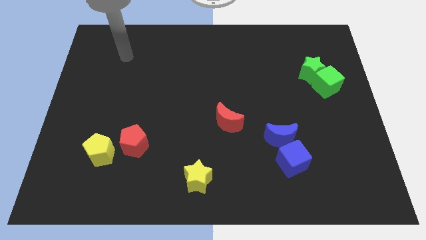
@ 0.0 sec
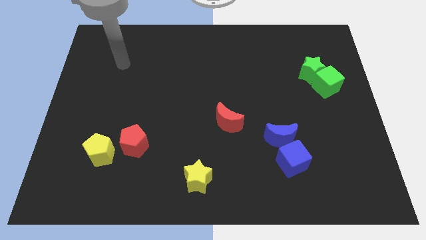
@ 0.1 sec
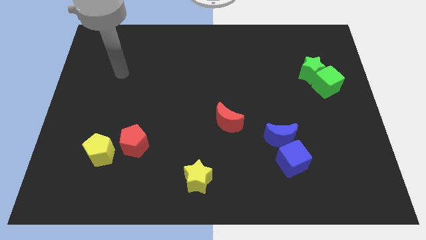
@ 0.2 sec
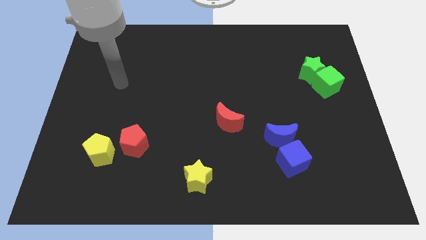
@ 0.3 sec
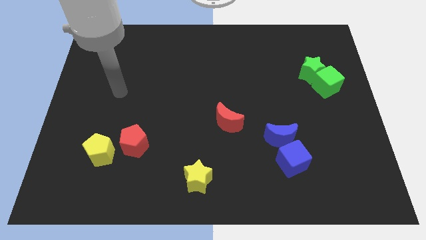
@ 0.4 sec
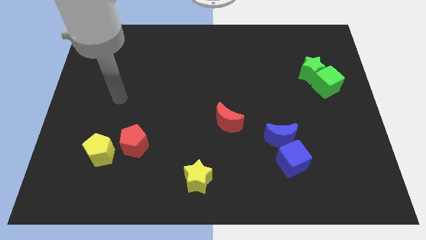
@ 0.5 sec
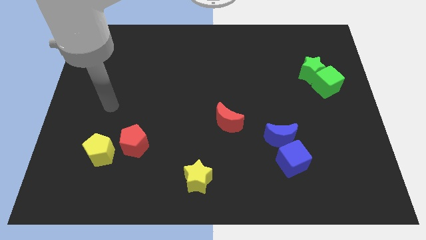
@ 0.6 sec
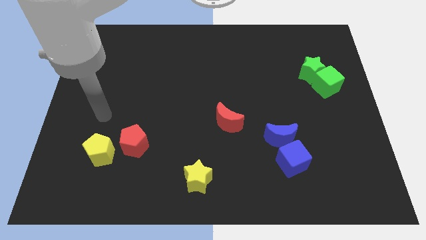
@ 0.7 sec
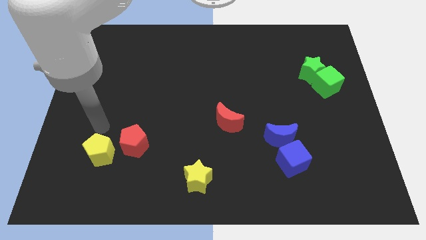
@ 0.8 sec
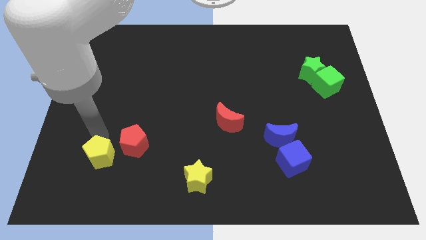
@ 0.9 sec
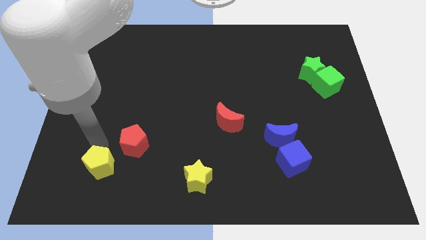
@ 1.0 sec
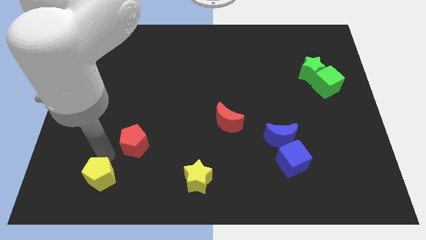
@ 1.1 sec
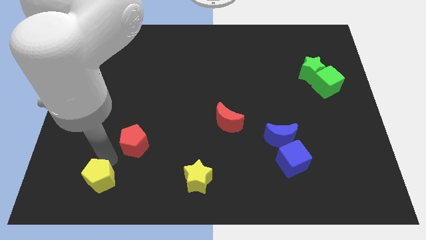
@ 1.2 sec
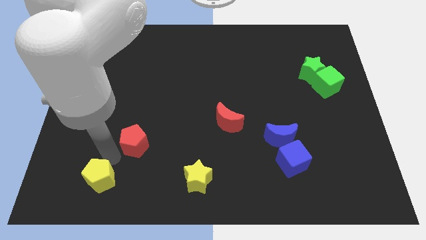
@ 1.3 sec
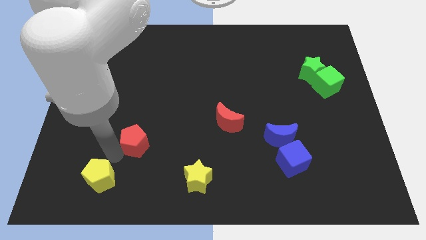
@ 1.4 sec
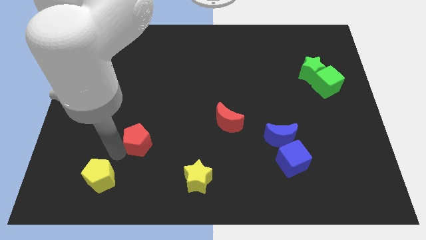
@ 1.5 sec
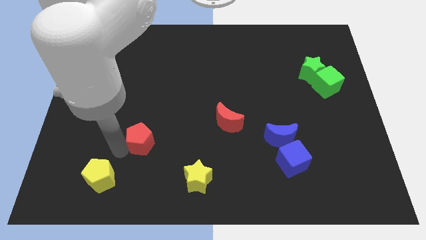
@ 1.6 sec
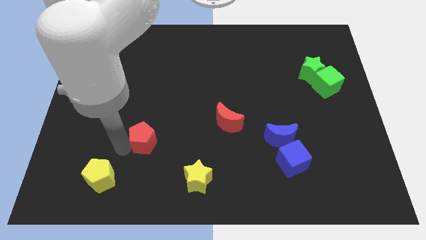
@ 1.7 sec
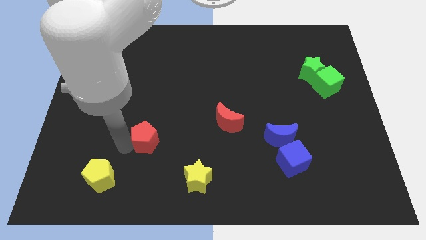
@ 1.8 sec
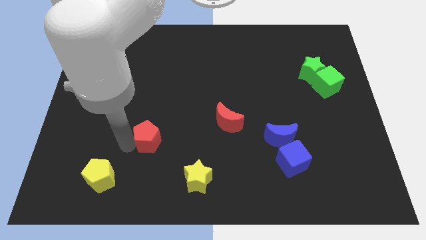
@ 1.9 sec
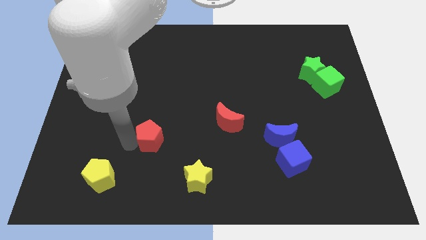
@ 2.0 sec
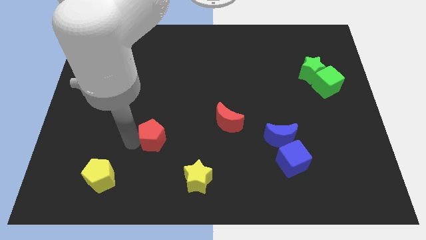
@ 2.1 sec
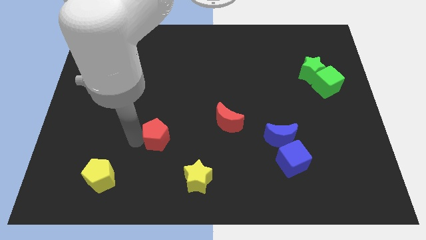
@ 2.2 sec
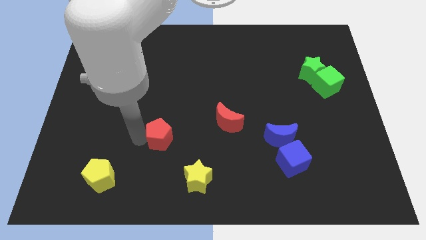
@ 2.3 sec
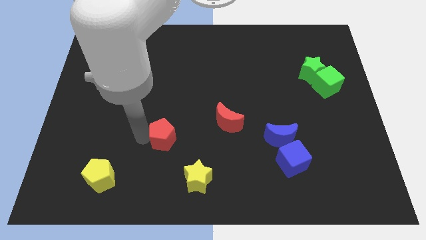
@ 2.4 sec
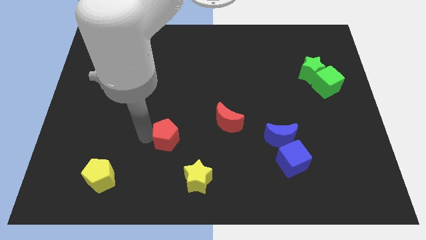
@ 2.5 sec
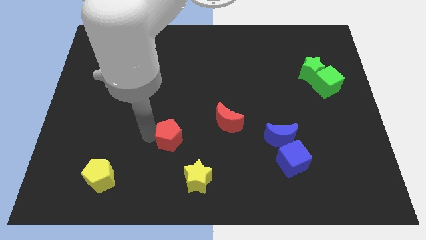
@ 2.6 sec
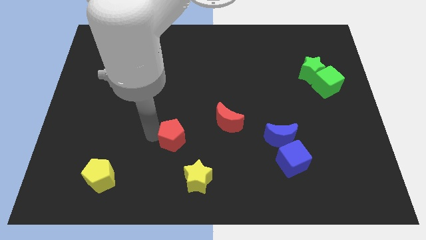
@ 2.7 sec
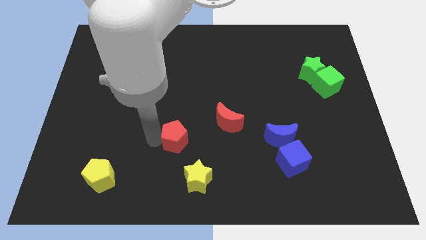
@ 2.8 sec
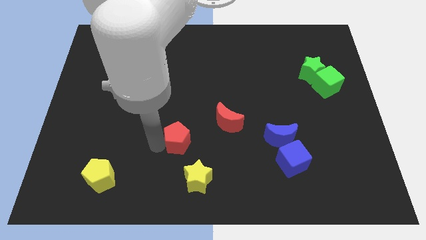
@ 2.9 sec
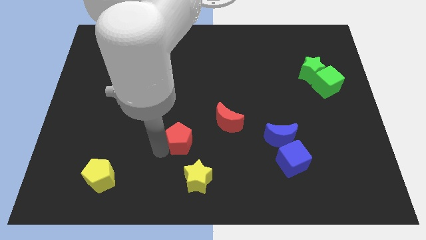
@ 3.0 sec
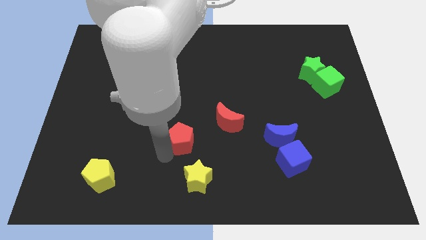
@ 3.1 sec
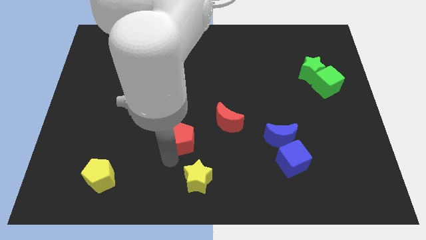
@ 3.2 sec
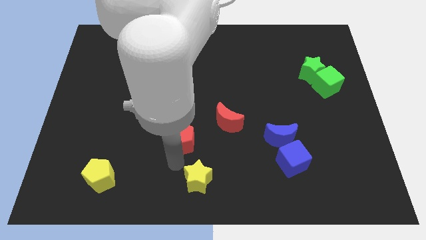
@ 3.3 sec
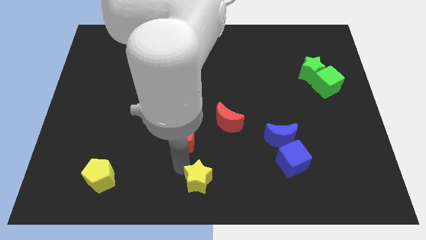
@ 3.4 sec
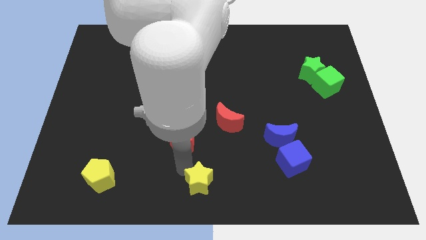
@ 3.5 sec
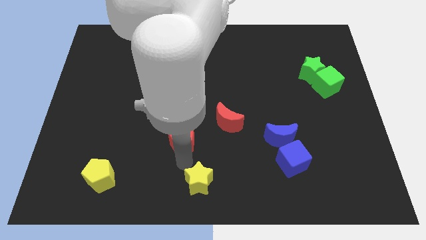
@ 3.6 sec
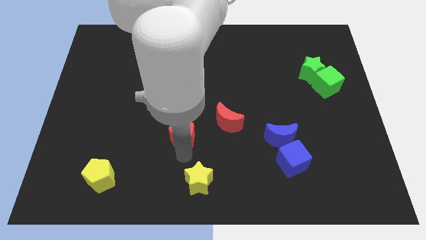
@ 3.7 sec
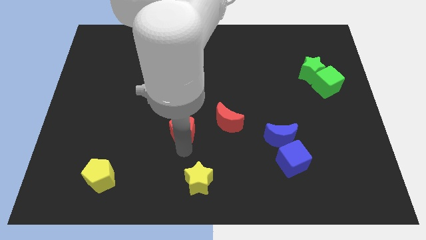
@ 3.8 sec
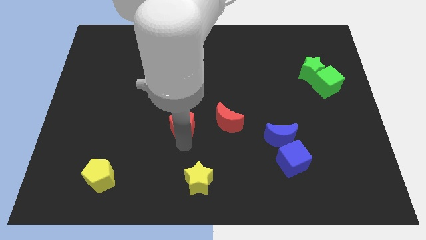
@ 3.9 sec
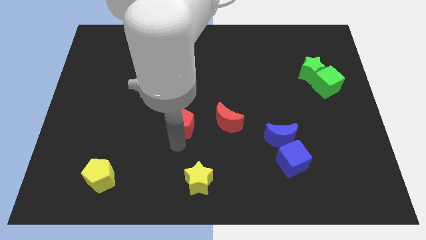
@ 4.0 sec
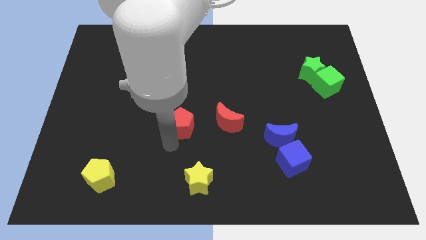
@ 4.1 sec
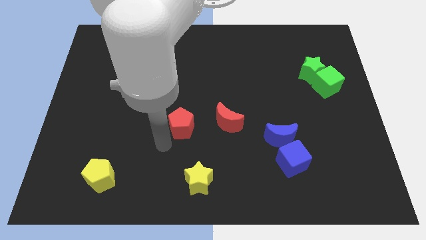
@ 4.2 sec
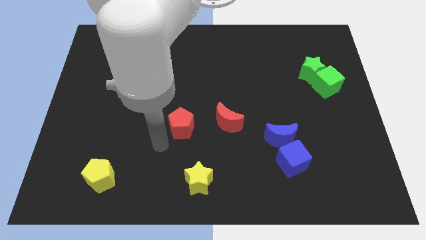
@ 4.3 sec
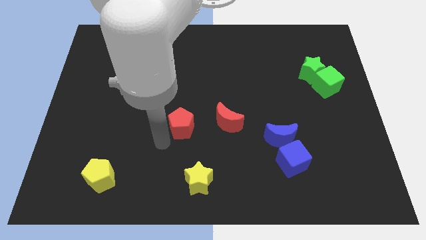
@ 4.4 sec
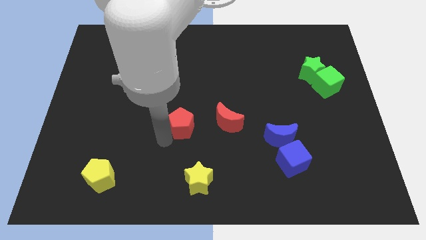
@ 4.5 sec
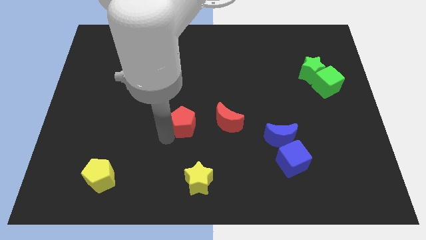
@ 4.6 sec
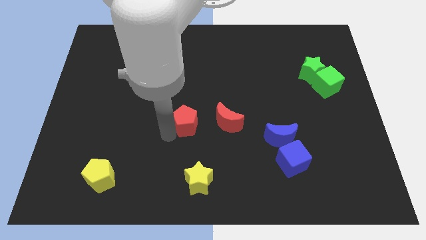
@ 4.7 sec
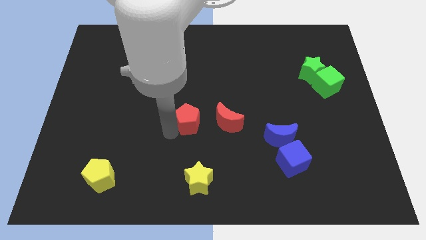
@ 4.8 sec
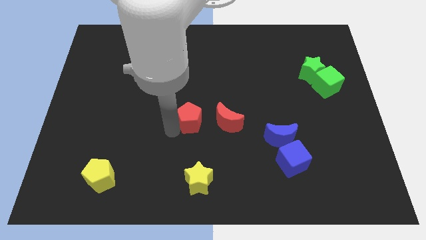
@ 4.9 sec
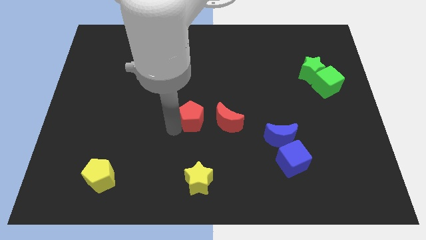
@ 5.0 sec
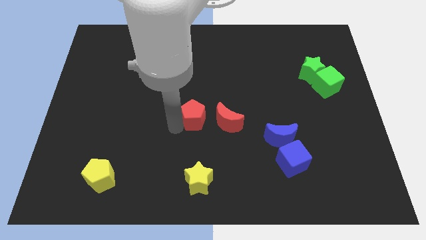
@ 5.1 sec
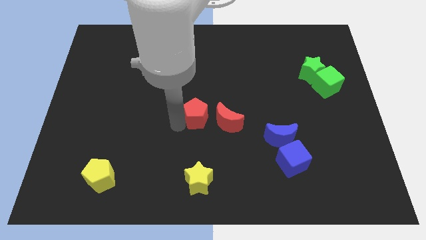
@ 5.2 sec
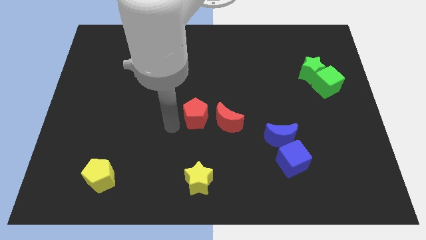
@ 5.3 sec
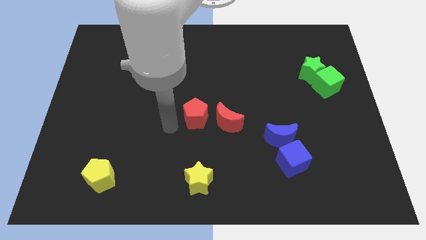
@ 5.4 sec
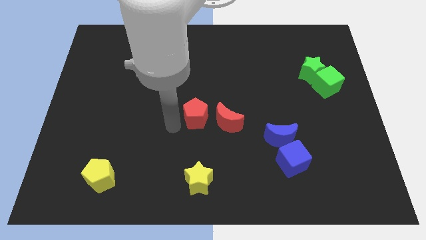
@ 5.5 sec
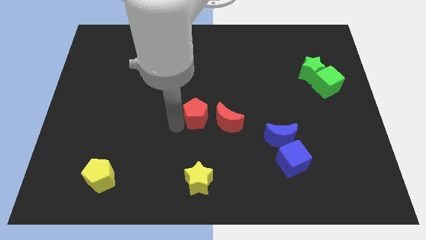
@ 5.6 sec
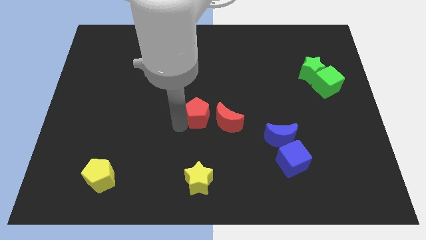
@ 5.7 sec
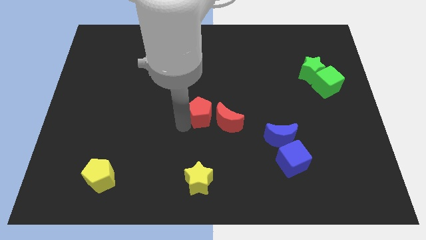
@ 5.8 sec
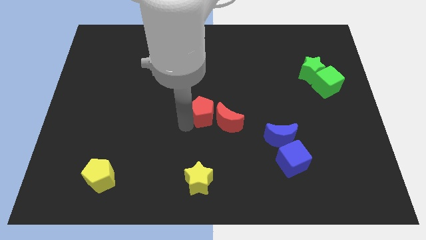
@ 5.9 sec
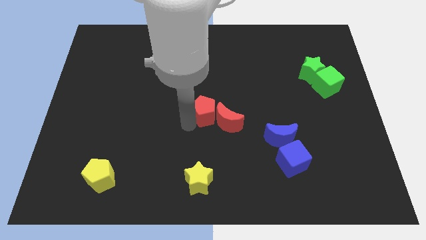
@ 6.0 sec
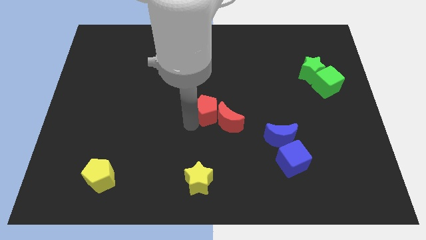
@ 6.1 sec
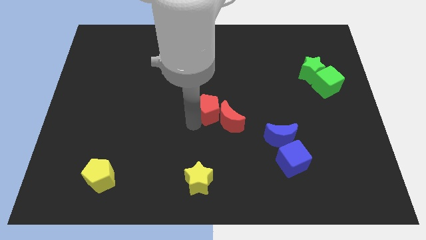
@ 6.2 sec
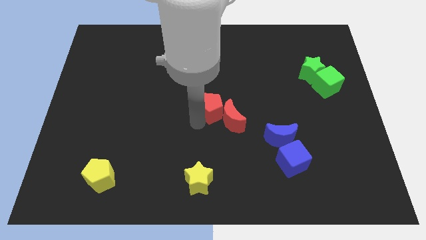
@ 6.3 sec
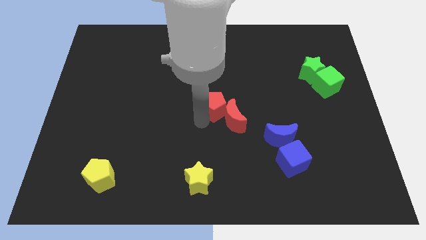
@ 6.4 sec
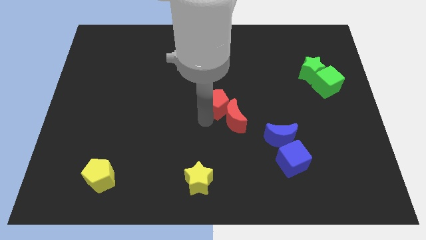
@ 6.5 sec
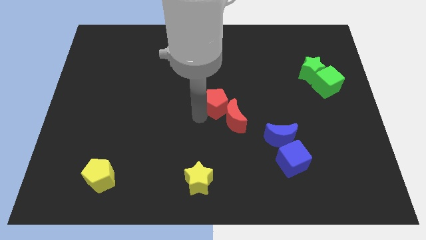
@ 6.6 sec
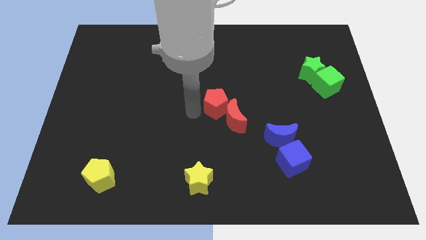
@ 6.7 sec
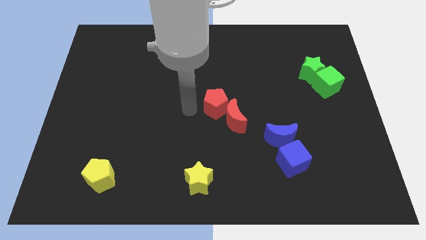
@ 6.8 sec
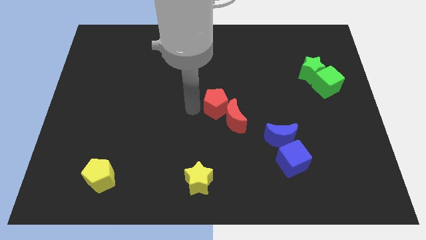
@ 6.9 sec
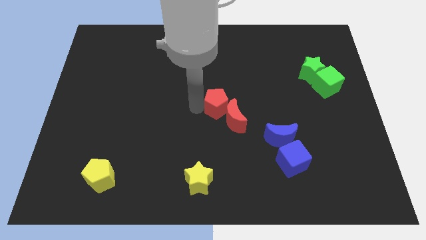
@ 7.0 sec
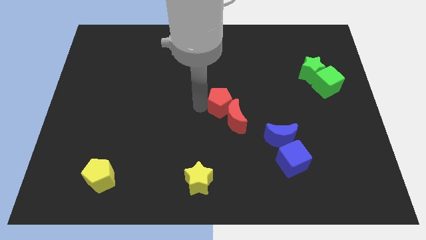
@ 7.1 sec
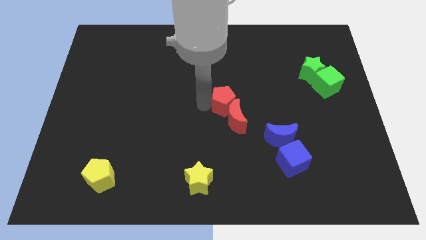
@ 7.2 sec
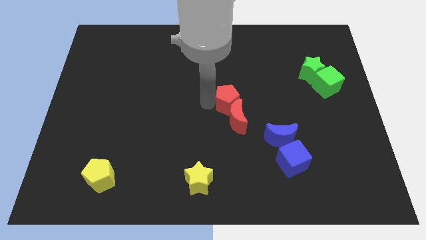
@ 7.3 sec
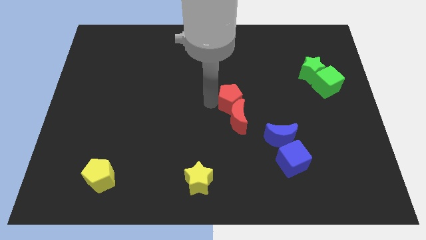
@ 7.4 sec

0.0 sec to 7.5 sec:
slide the red pentagon to the top right side of the red moon
